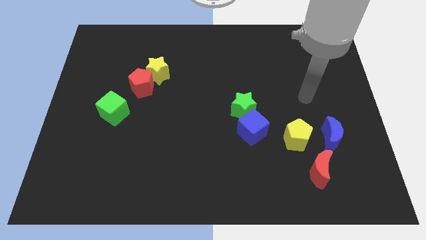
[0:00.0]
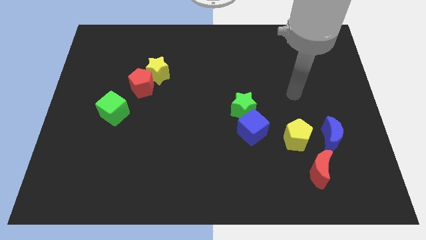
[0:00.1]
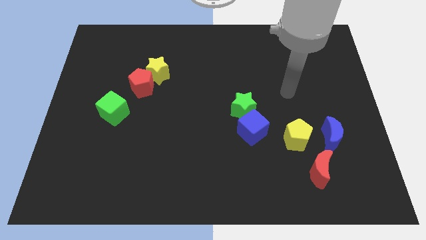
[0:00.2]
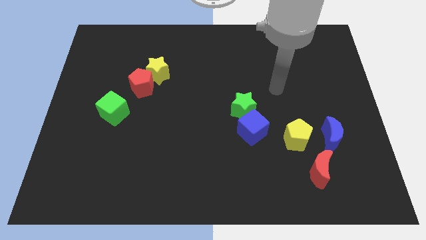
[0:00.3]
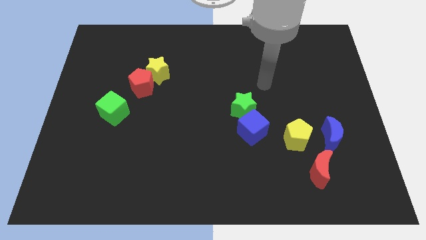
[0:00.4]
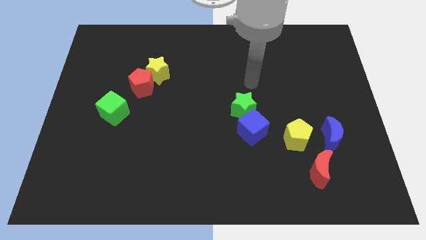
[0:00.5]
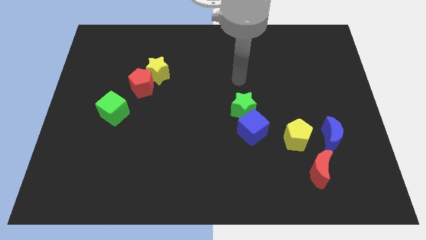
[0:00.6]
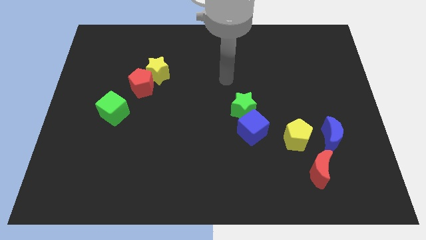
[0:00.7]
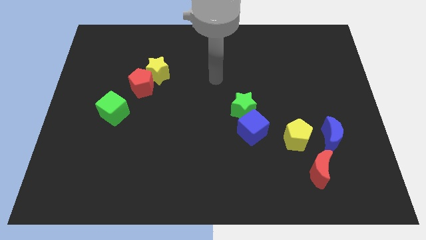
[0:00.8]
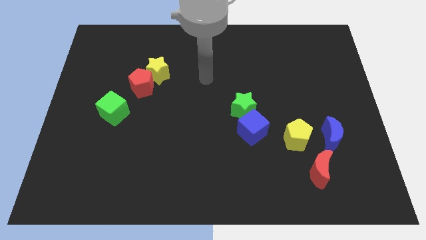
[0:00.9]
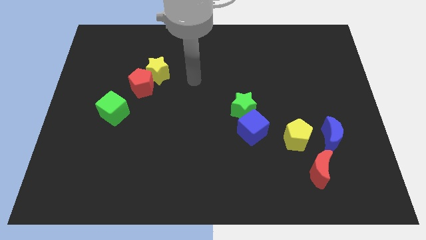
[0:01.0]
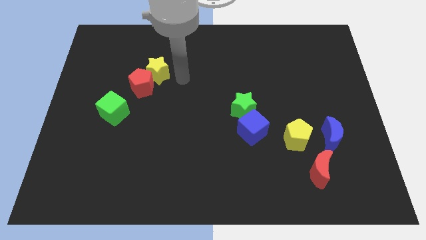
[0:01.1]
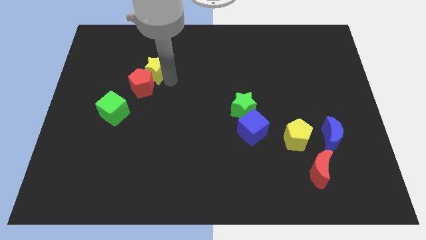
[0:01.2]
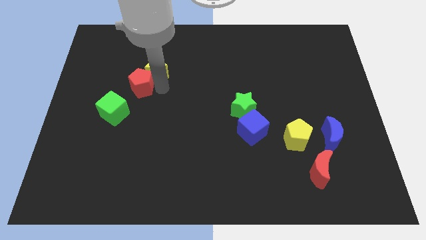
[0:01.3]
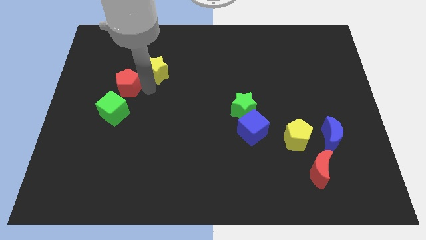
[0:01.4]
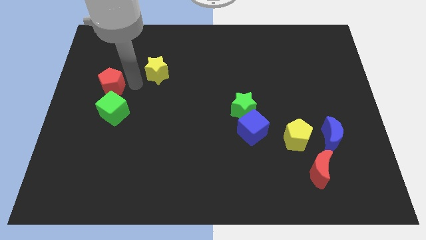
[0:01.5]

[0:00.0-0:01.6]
move the yellow star away from the red pentagon

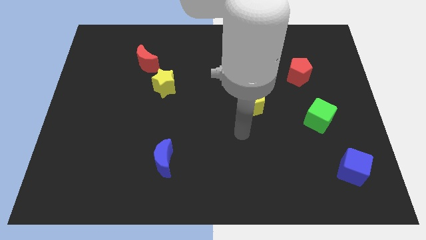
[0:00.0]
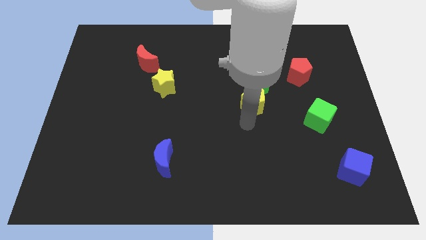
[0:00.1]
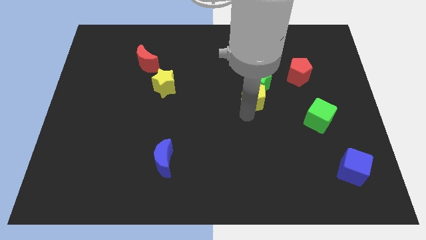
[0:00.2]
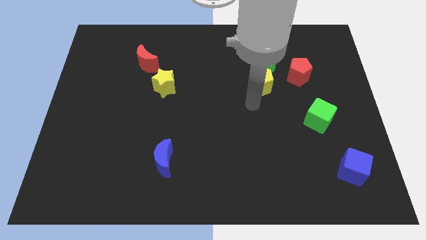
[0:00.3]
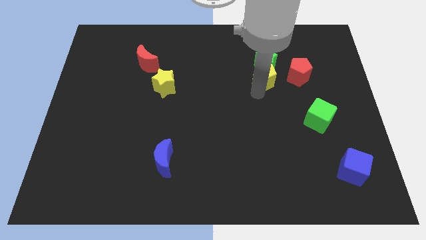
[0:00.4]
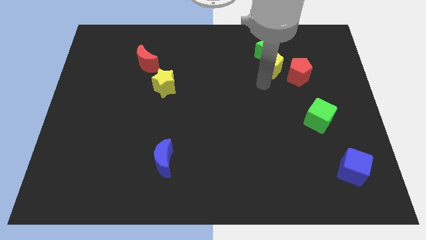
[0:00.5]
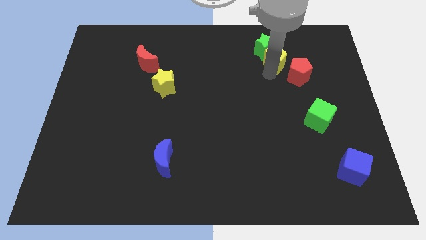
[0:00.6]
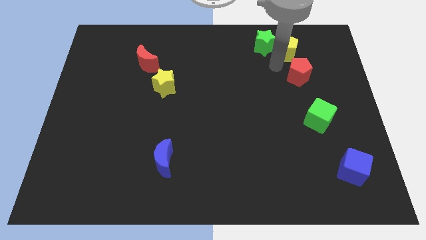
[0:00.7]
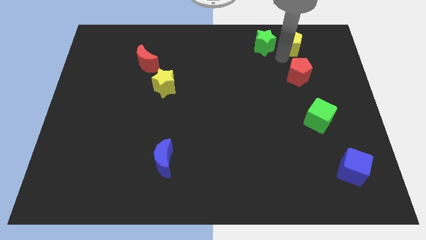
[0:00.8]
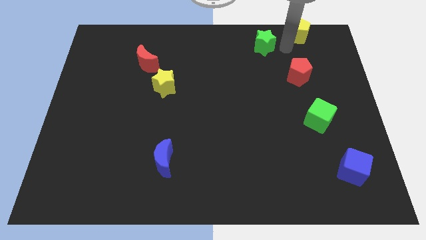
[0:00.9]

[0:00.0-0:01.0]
move the green star away from the yellow pentagon

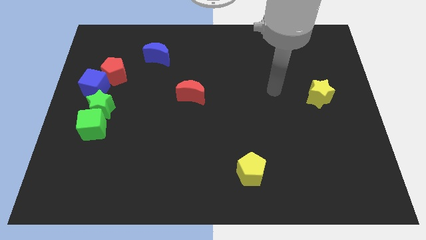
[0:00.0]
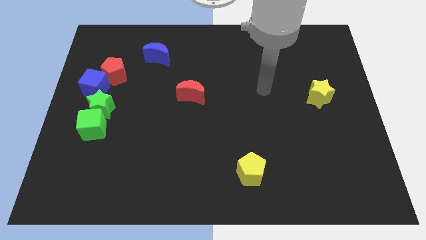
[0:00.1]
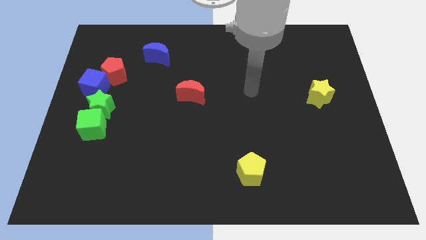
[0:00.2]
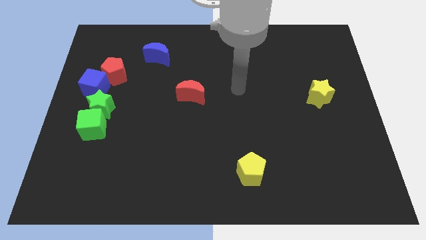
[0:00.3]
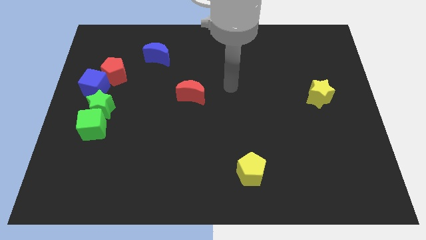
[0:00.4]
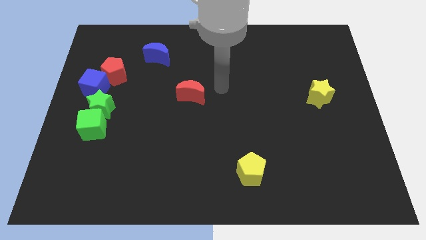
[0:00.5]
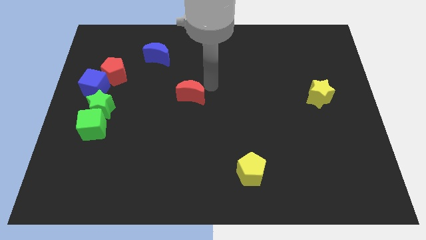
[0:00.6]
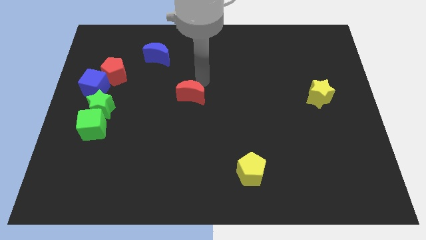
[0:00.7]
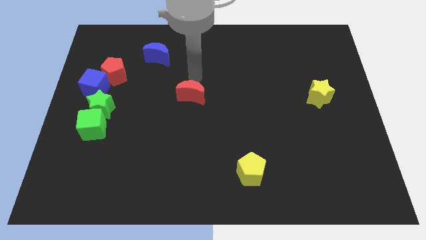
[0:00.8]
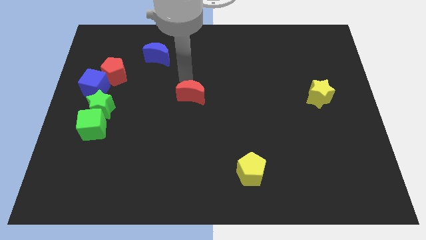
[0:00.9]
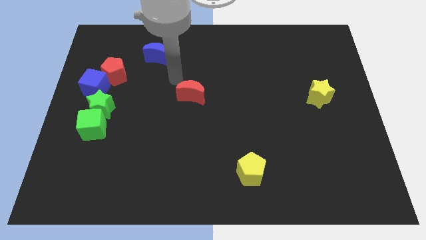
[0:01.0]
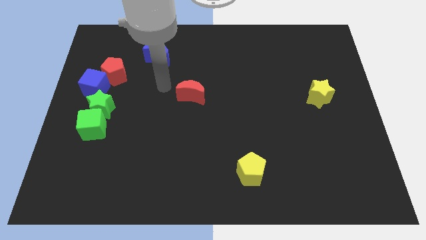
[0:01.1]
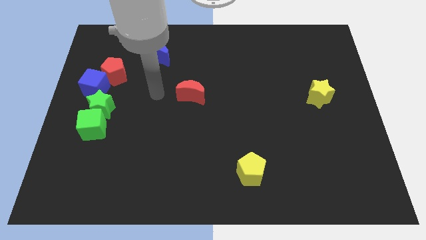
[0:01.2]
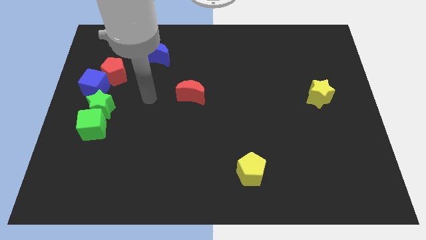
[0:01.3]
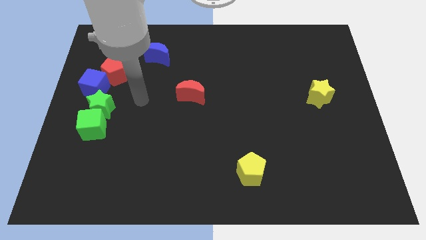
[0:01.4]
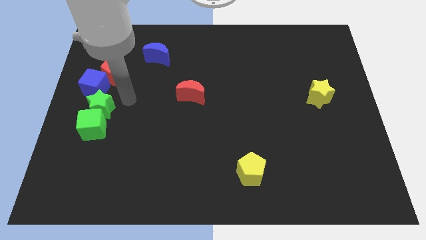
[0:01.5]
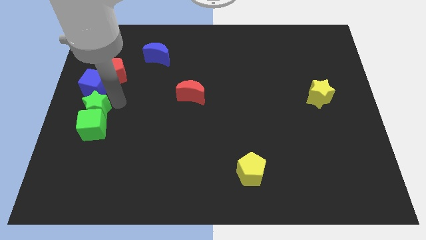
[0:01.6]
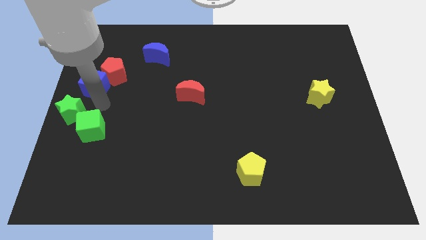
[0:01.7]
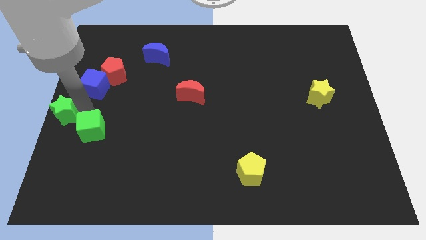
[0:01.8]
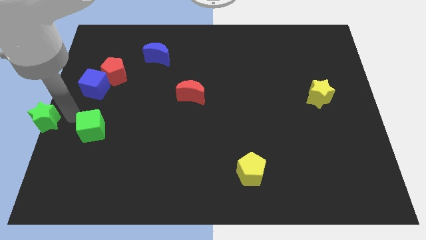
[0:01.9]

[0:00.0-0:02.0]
move the green cube away from the green star

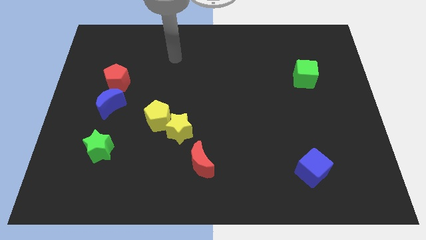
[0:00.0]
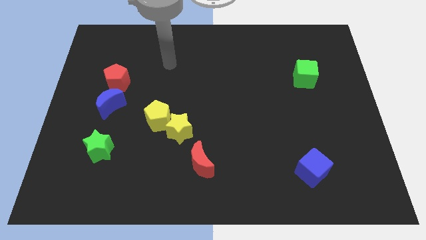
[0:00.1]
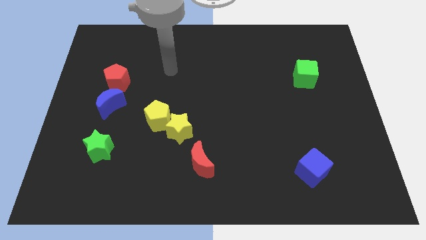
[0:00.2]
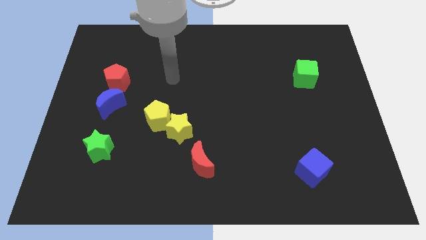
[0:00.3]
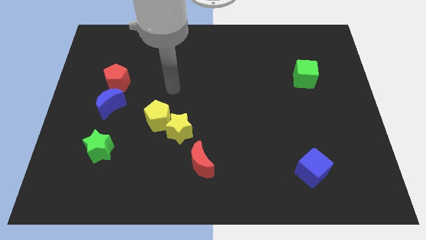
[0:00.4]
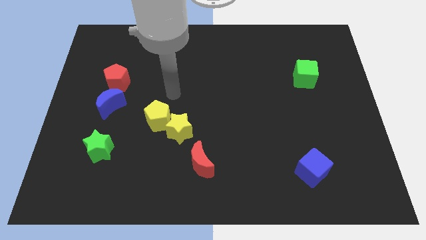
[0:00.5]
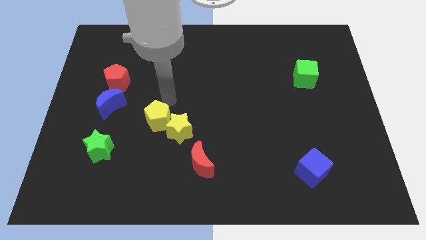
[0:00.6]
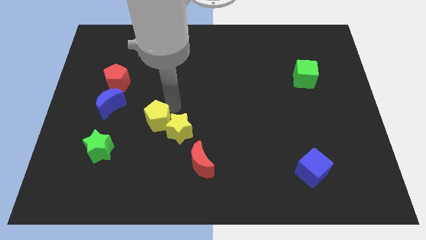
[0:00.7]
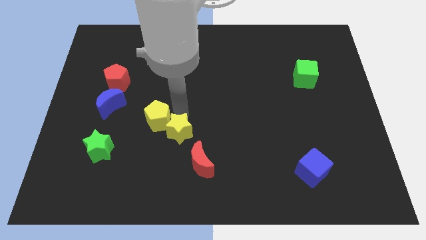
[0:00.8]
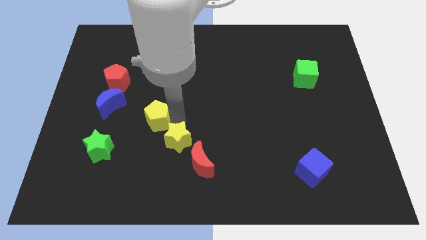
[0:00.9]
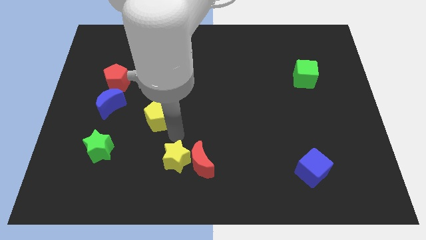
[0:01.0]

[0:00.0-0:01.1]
move the yellow pentagon away from the yellow star

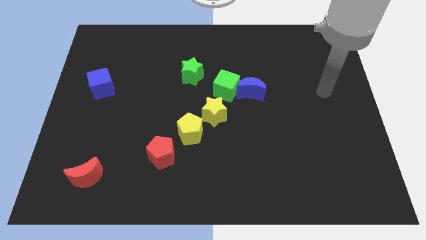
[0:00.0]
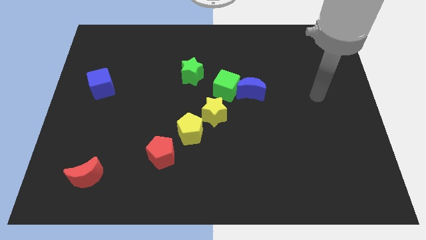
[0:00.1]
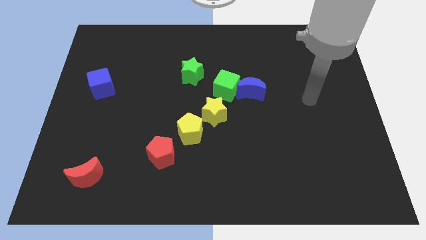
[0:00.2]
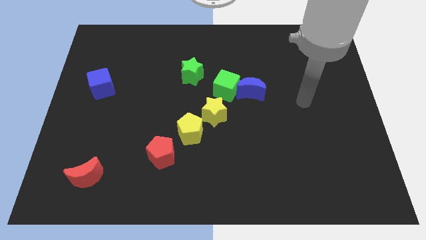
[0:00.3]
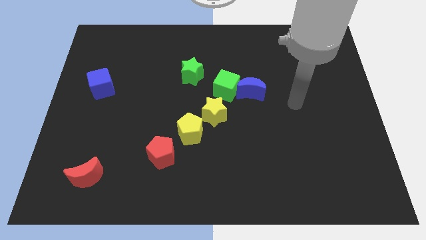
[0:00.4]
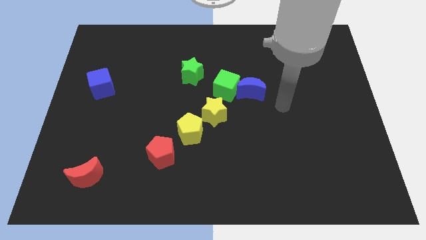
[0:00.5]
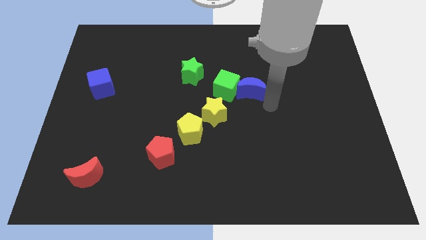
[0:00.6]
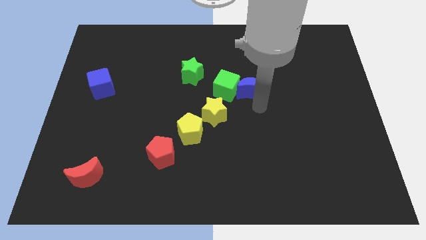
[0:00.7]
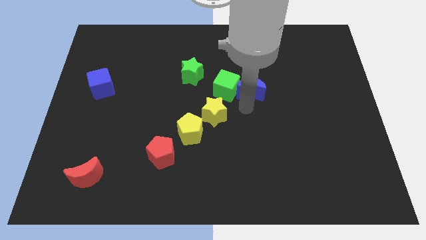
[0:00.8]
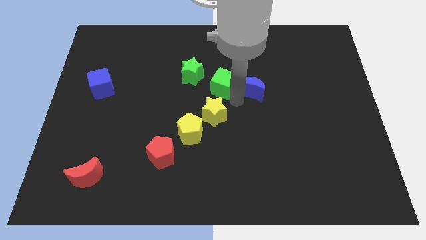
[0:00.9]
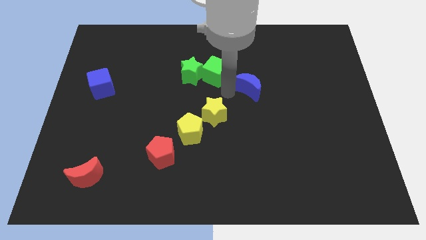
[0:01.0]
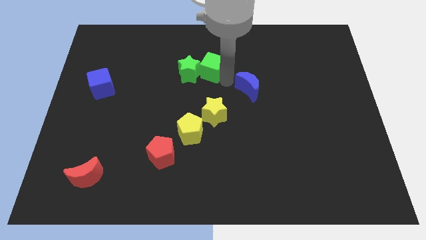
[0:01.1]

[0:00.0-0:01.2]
pull the blue moon apart from the green cube

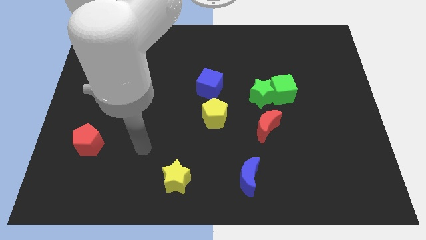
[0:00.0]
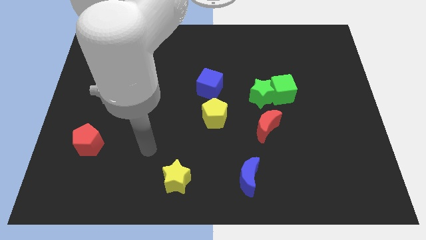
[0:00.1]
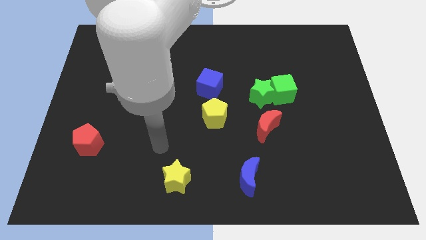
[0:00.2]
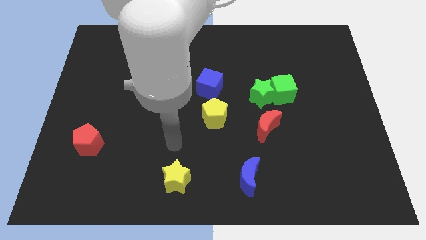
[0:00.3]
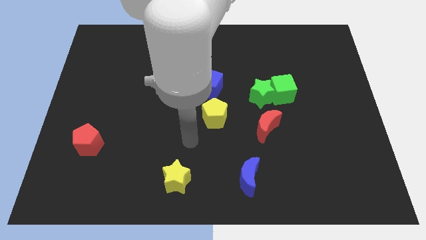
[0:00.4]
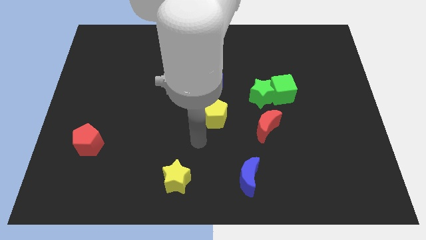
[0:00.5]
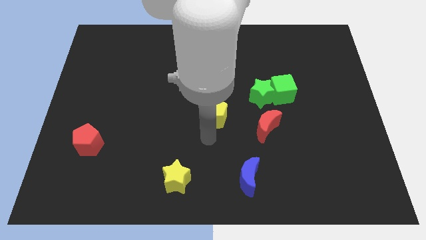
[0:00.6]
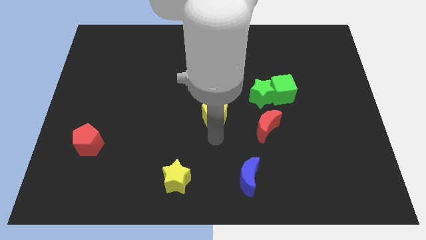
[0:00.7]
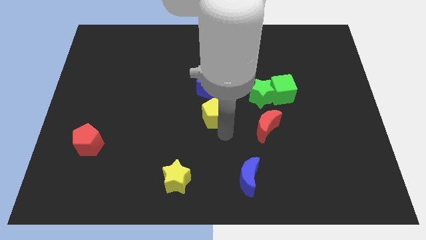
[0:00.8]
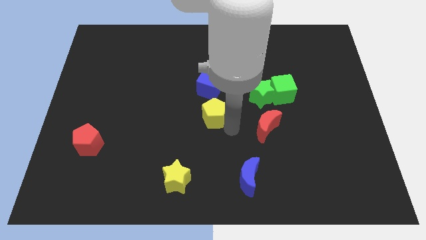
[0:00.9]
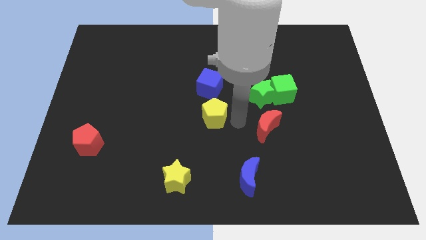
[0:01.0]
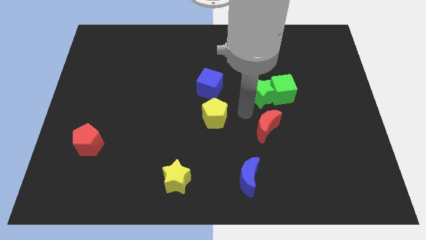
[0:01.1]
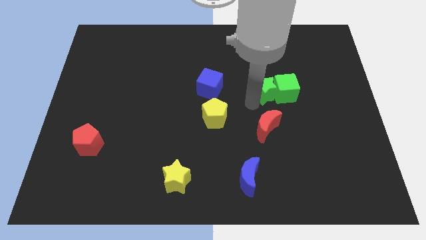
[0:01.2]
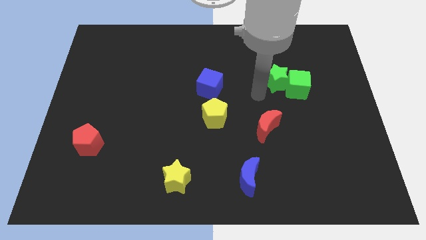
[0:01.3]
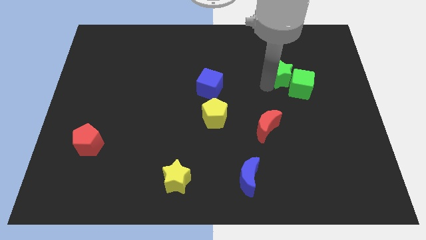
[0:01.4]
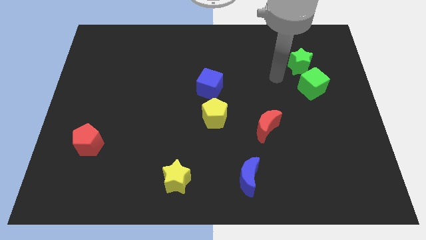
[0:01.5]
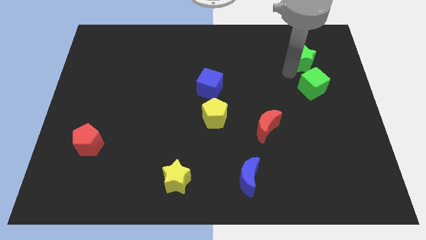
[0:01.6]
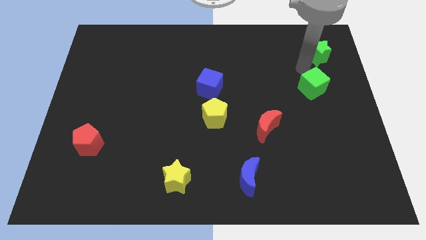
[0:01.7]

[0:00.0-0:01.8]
pull the green cube apart from the green star

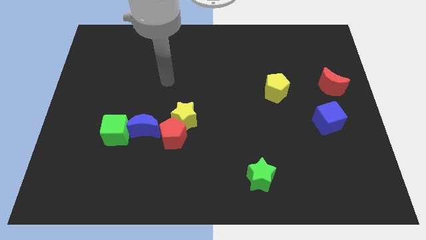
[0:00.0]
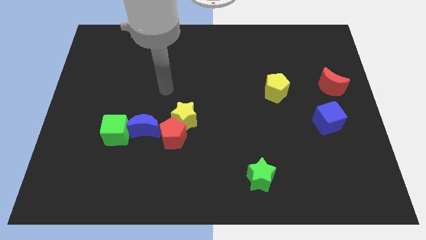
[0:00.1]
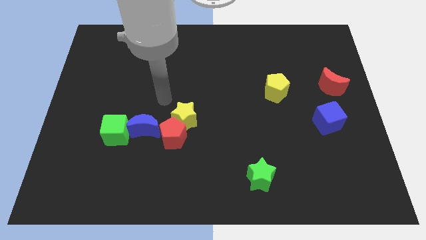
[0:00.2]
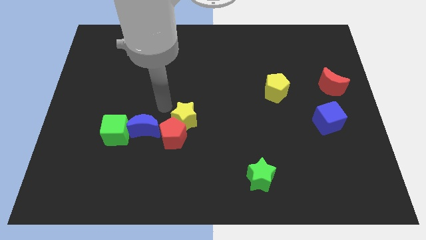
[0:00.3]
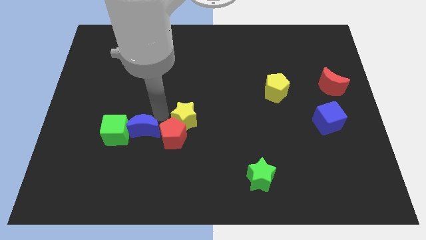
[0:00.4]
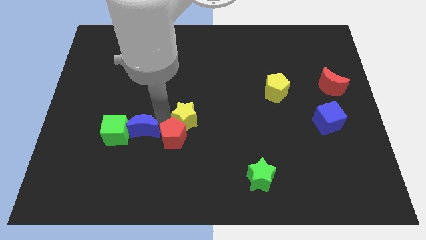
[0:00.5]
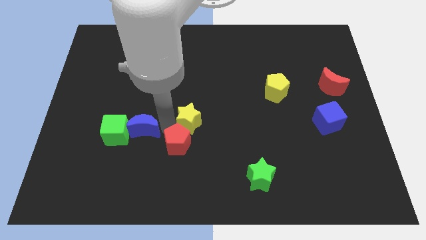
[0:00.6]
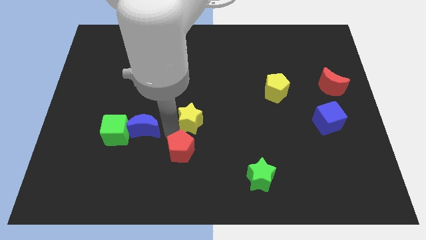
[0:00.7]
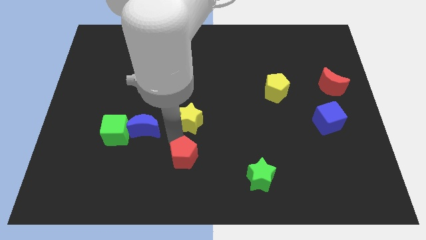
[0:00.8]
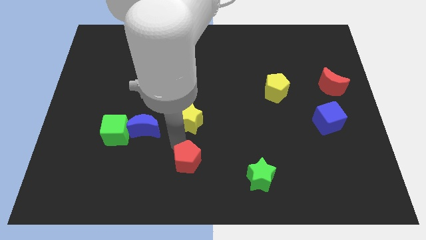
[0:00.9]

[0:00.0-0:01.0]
move the red pentagon away from the yellow star and blue moon
